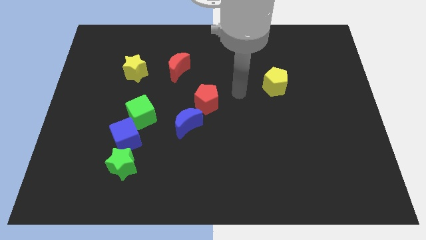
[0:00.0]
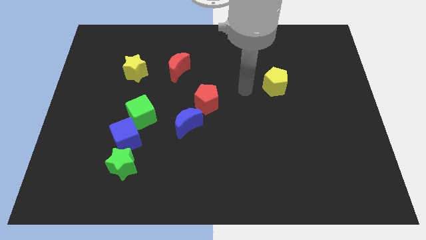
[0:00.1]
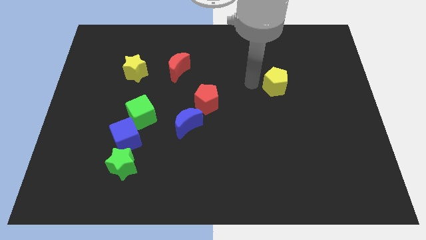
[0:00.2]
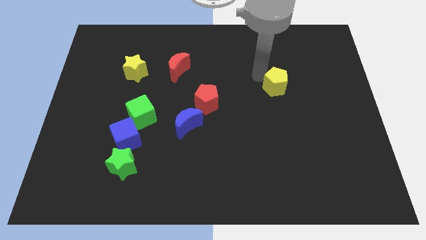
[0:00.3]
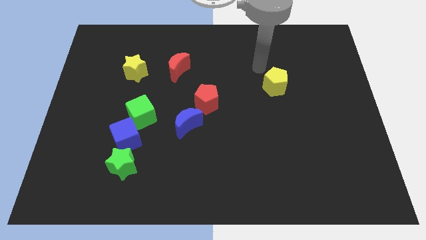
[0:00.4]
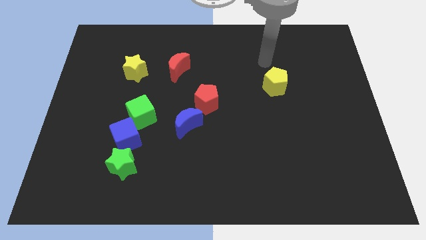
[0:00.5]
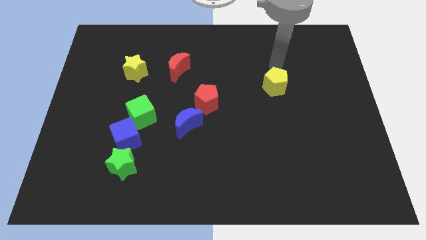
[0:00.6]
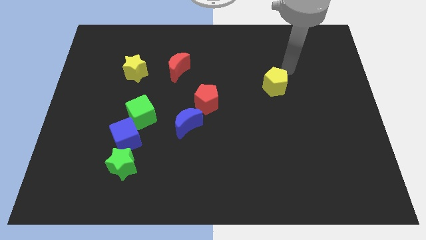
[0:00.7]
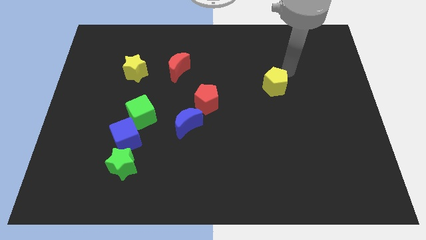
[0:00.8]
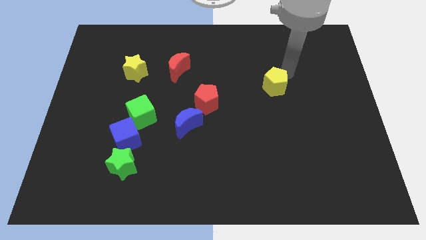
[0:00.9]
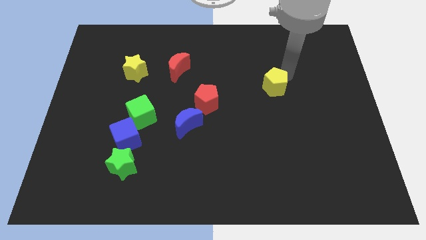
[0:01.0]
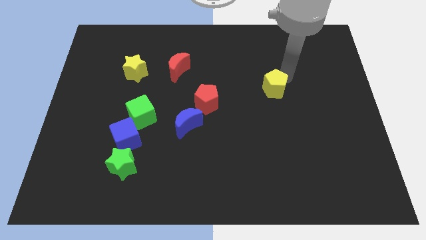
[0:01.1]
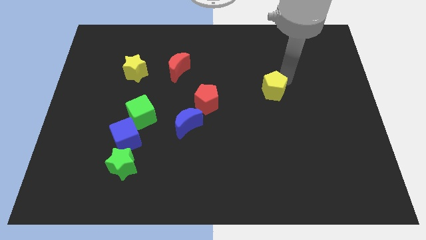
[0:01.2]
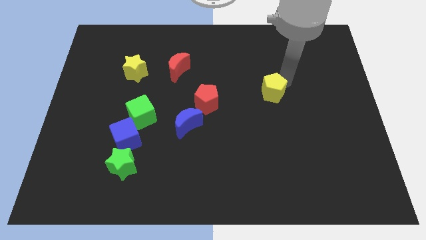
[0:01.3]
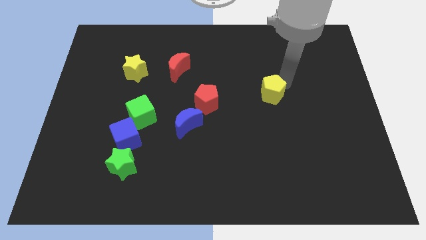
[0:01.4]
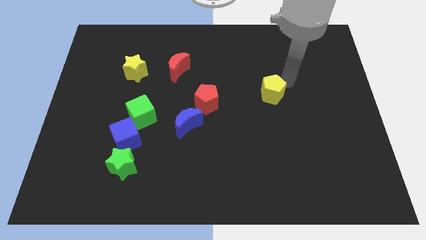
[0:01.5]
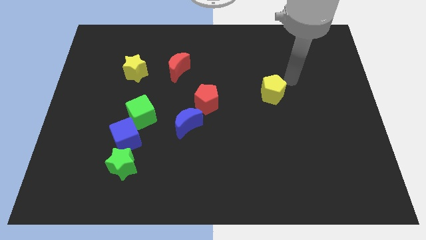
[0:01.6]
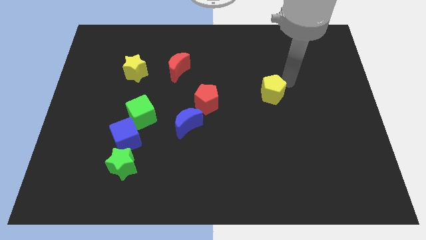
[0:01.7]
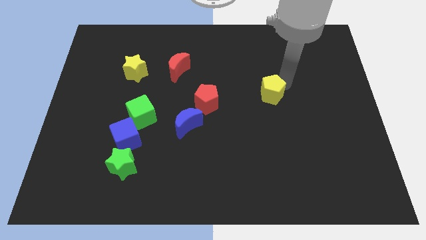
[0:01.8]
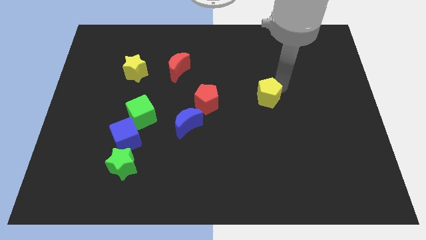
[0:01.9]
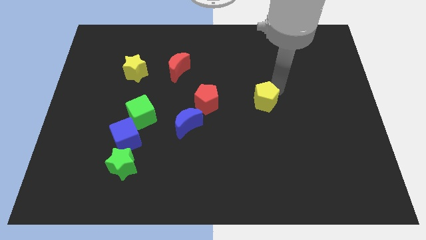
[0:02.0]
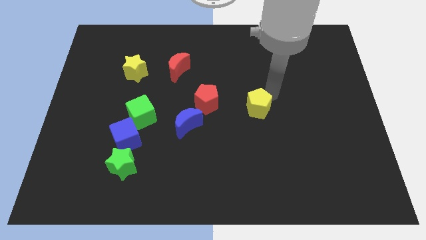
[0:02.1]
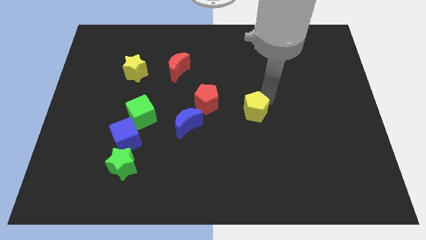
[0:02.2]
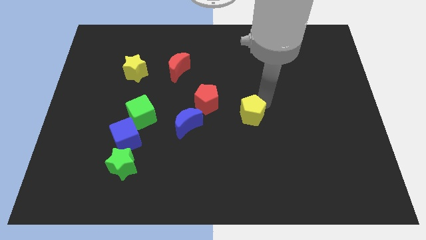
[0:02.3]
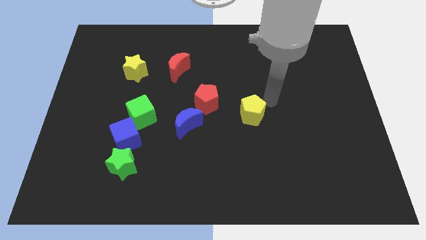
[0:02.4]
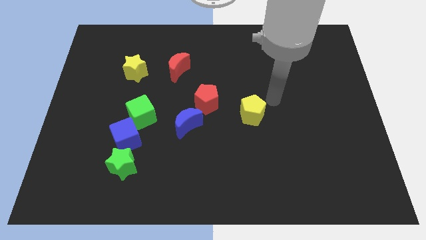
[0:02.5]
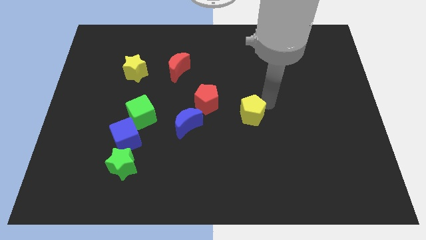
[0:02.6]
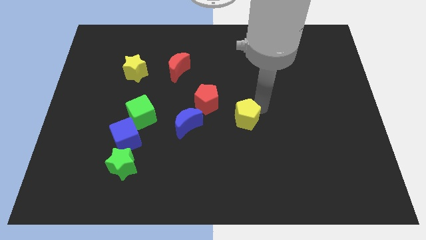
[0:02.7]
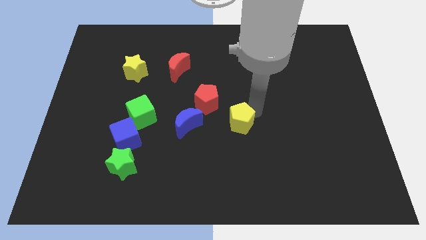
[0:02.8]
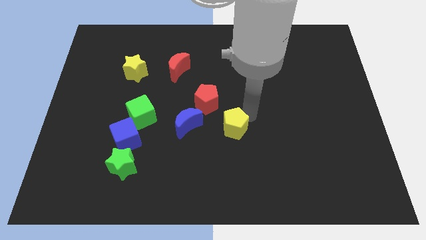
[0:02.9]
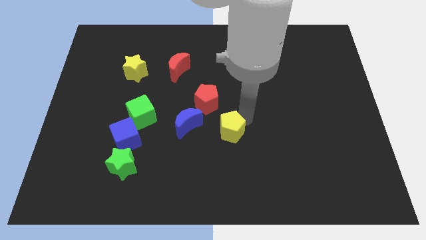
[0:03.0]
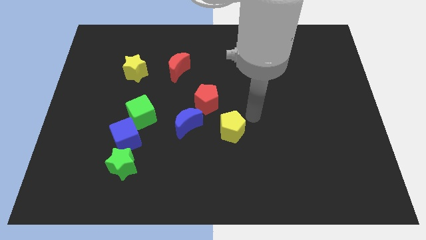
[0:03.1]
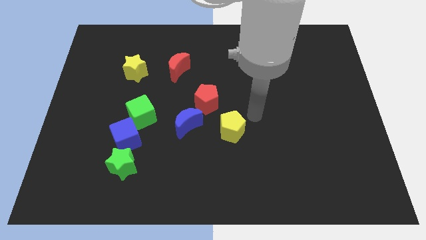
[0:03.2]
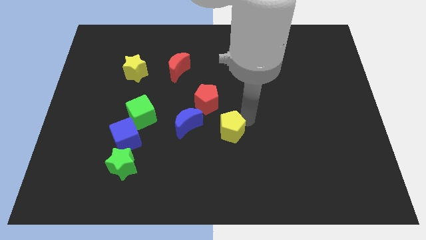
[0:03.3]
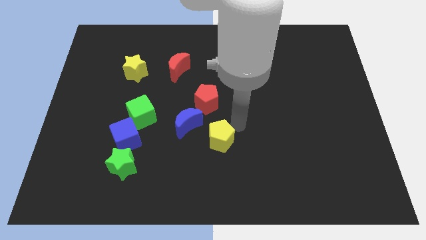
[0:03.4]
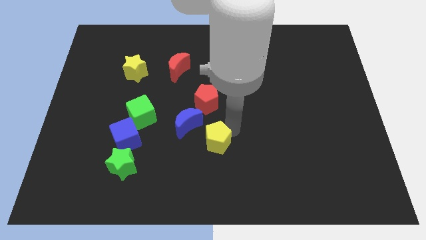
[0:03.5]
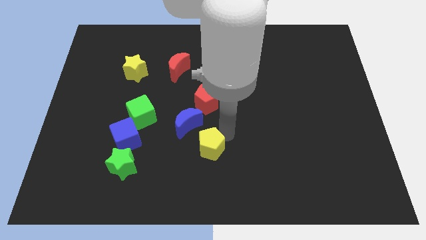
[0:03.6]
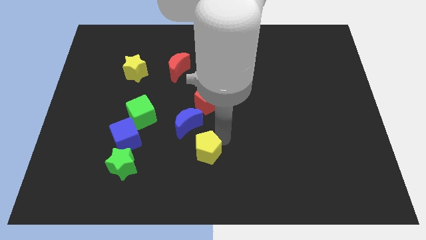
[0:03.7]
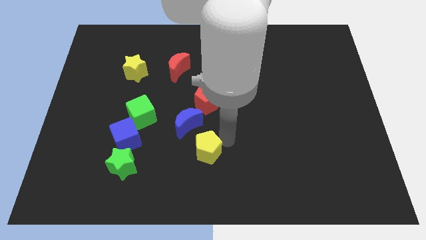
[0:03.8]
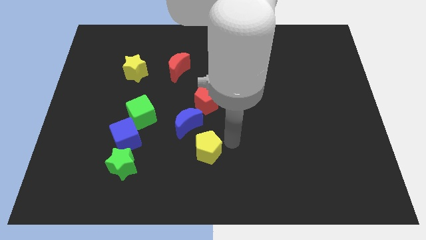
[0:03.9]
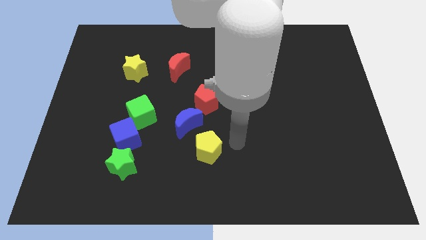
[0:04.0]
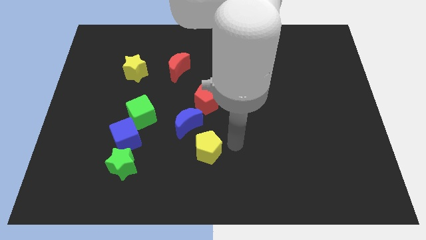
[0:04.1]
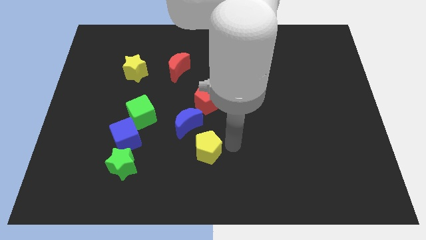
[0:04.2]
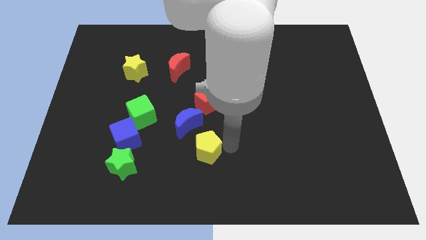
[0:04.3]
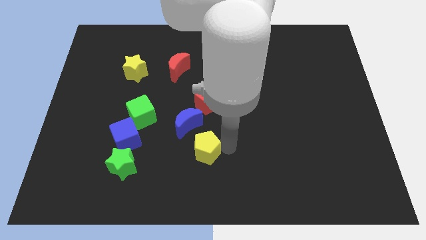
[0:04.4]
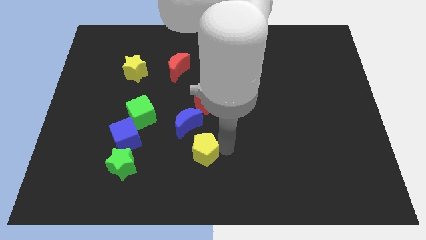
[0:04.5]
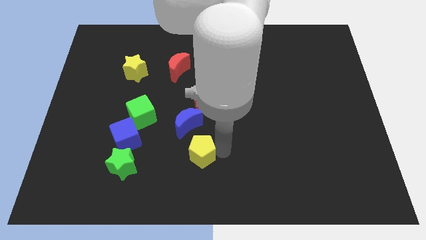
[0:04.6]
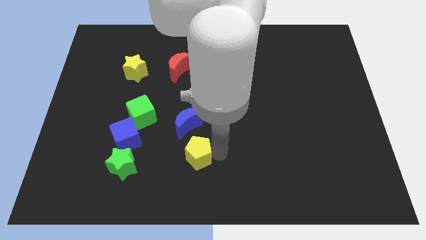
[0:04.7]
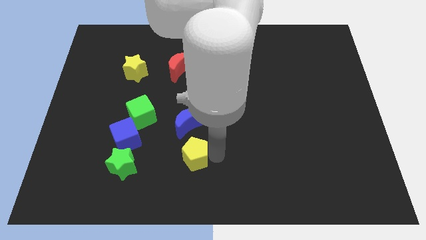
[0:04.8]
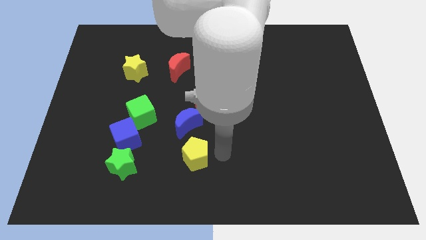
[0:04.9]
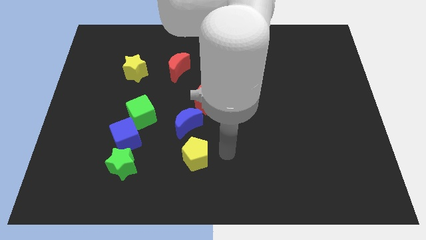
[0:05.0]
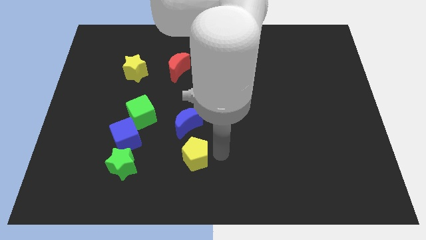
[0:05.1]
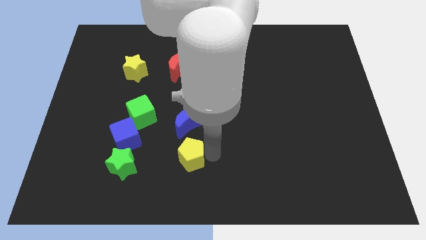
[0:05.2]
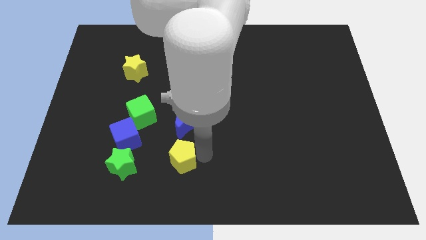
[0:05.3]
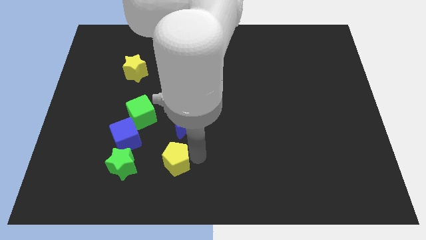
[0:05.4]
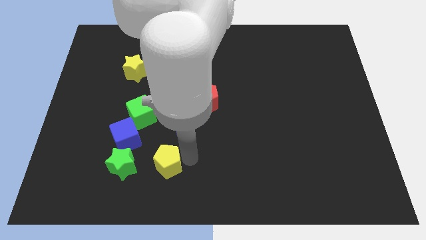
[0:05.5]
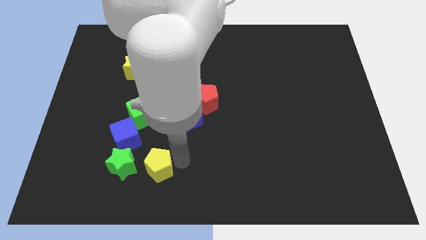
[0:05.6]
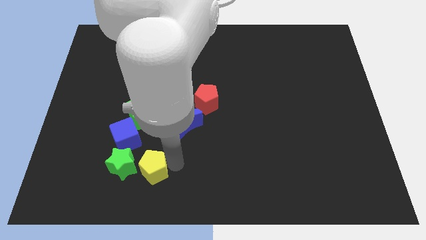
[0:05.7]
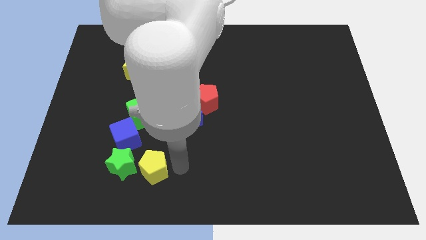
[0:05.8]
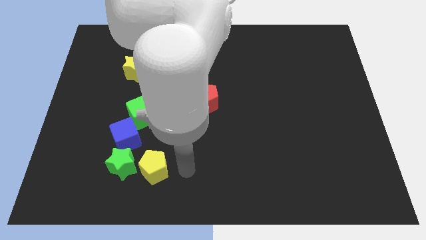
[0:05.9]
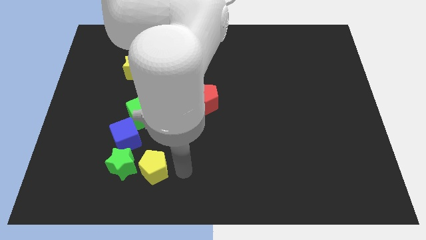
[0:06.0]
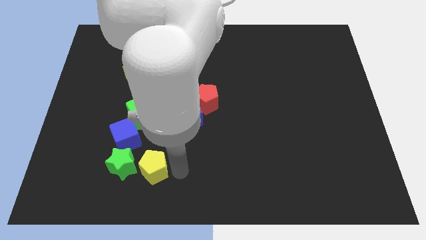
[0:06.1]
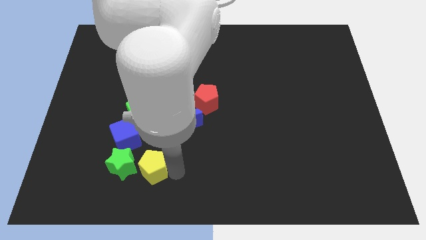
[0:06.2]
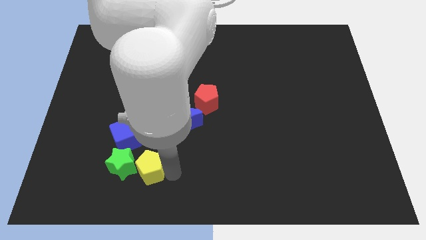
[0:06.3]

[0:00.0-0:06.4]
slide the yellow pentagon towards the green star
